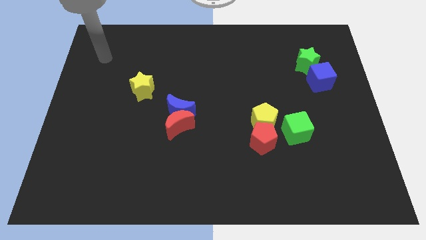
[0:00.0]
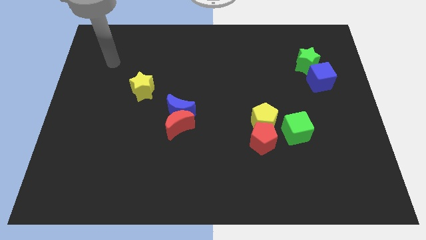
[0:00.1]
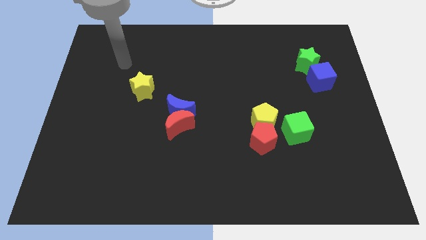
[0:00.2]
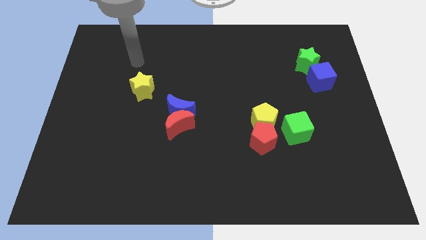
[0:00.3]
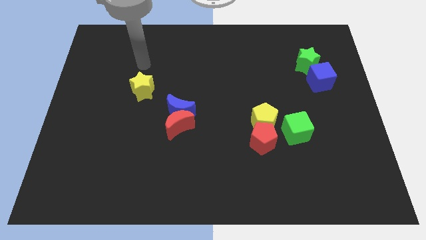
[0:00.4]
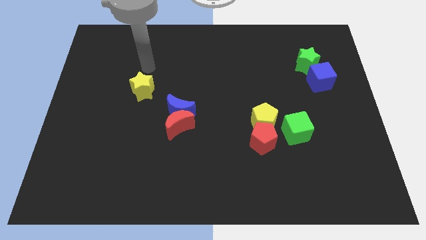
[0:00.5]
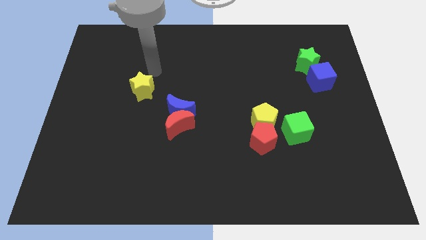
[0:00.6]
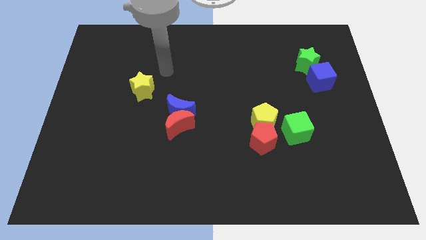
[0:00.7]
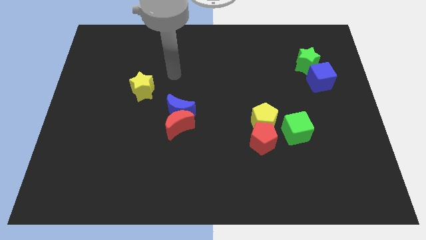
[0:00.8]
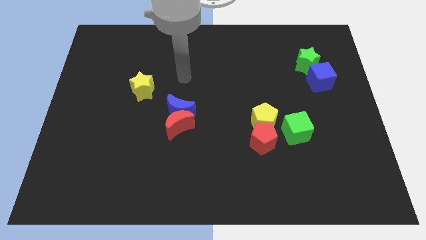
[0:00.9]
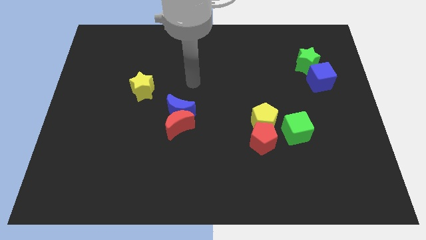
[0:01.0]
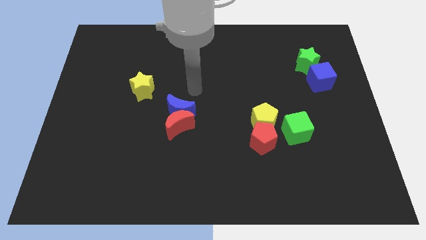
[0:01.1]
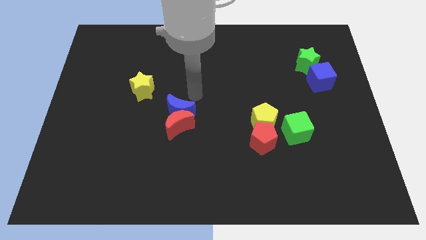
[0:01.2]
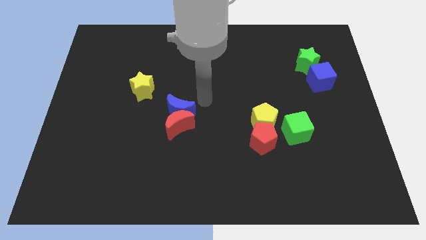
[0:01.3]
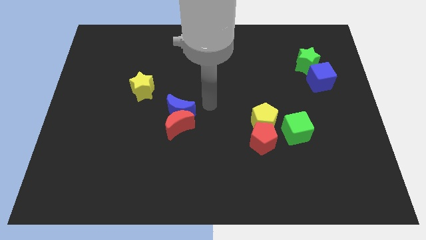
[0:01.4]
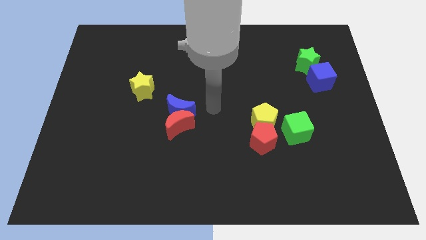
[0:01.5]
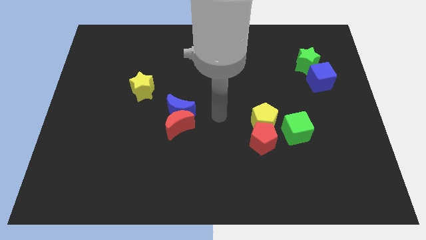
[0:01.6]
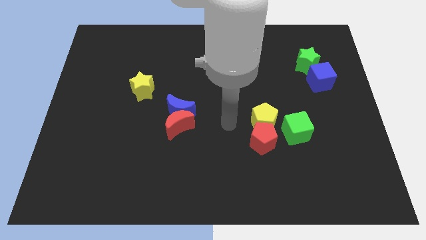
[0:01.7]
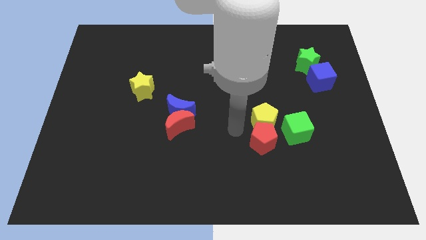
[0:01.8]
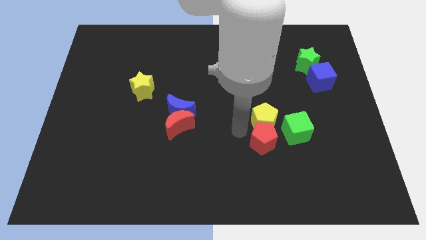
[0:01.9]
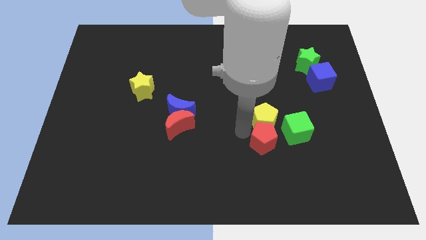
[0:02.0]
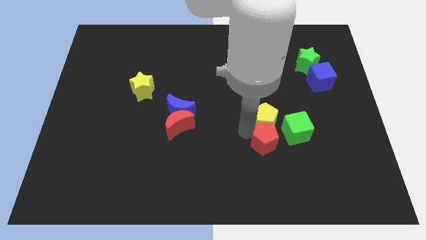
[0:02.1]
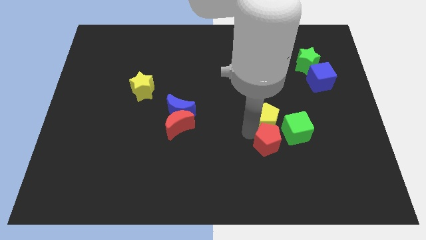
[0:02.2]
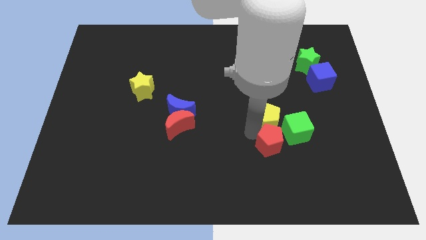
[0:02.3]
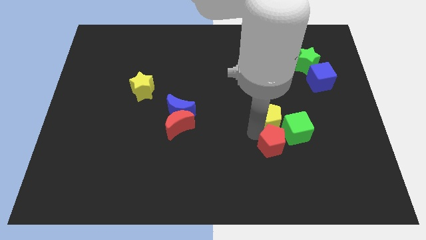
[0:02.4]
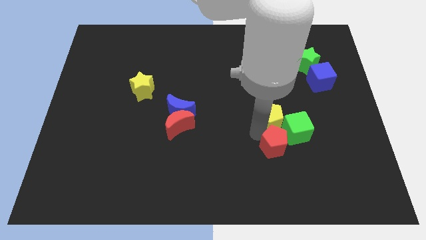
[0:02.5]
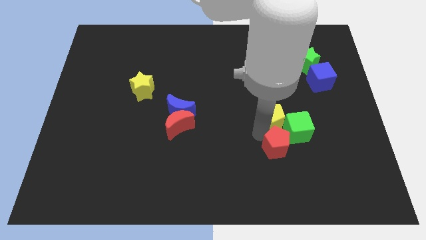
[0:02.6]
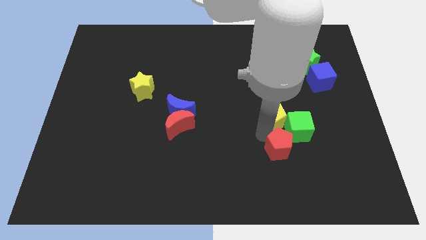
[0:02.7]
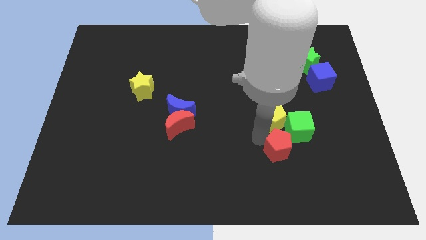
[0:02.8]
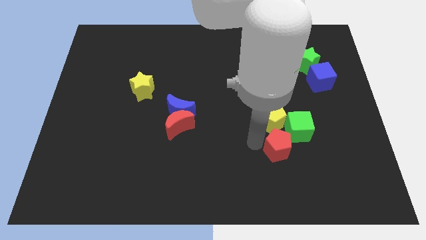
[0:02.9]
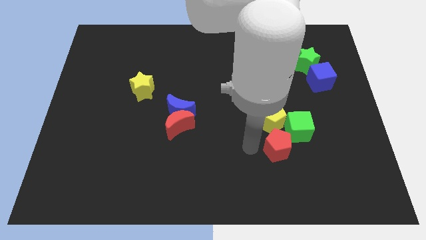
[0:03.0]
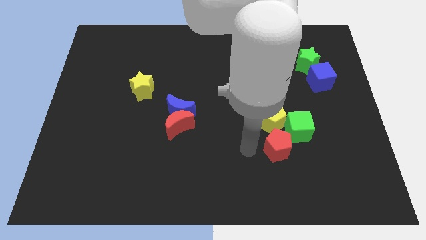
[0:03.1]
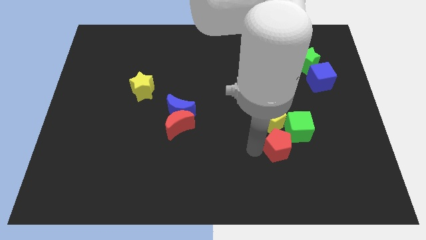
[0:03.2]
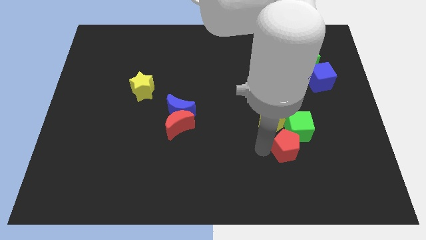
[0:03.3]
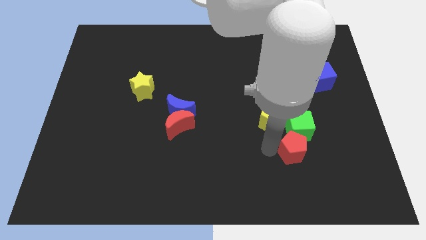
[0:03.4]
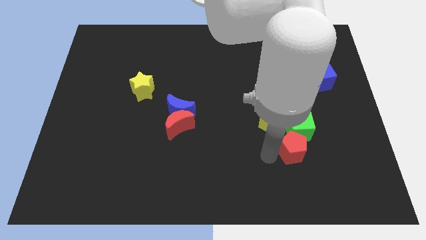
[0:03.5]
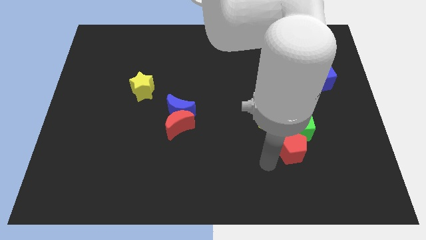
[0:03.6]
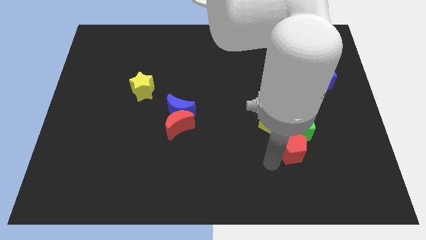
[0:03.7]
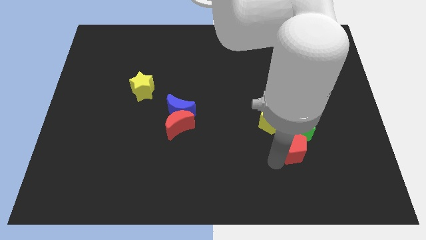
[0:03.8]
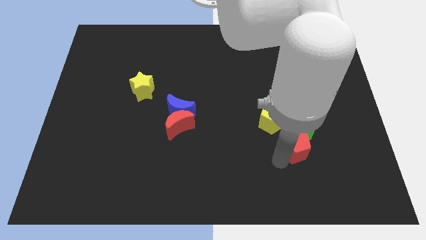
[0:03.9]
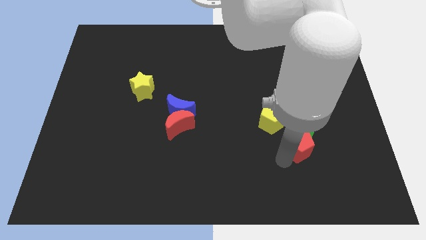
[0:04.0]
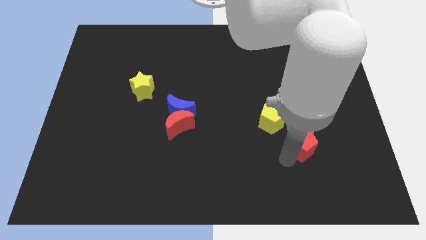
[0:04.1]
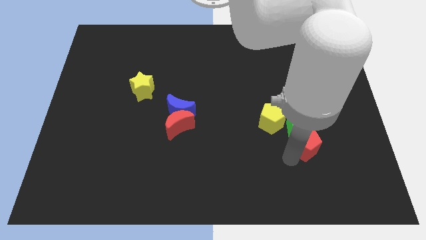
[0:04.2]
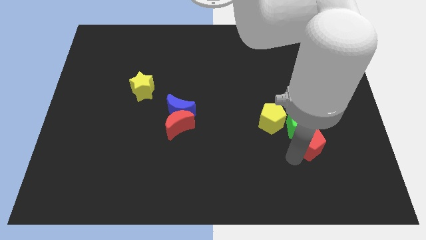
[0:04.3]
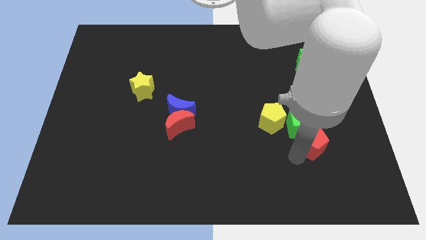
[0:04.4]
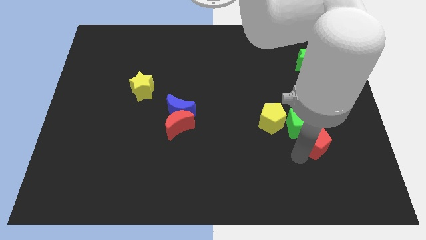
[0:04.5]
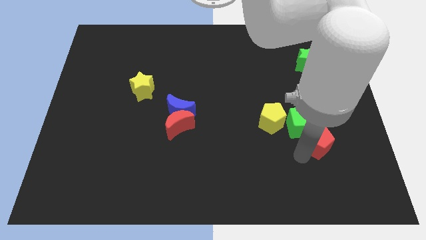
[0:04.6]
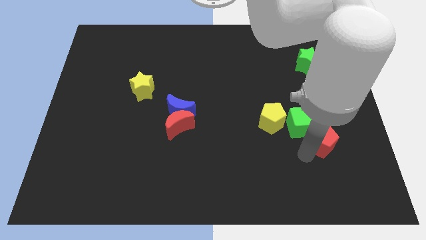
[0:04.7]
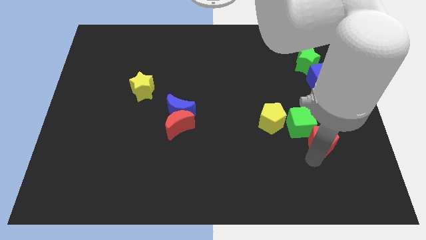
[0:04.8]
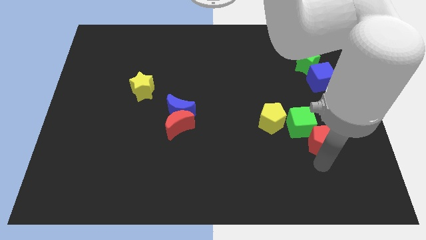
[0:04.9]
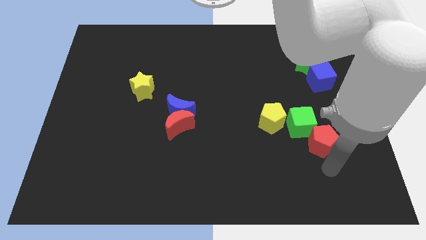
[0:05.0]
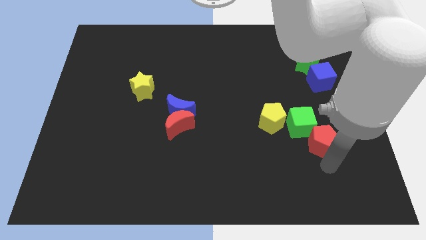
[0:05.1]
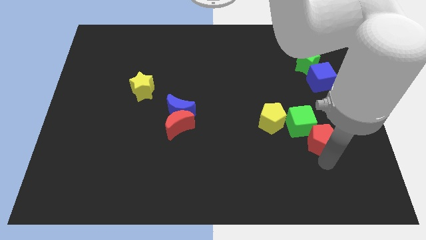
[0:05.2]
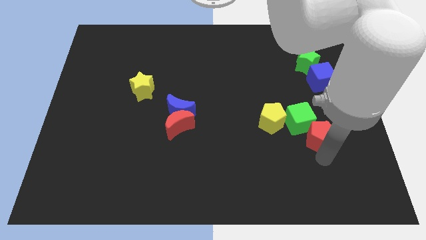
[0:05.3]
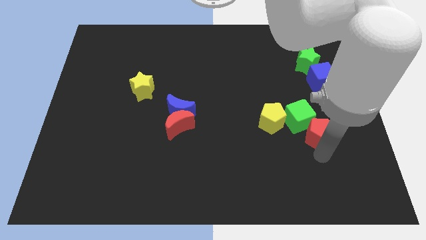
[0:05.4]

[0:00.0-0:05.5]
slide the red pentagon a bit upwards and to the right diagonally

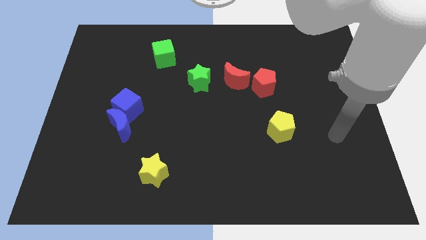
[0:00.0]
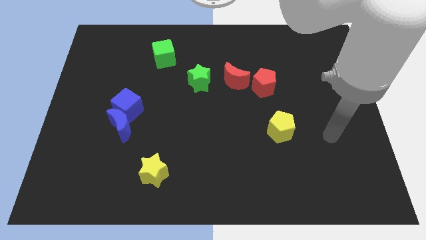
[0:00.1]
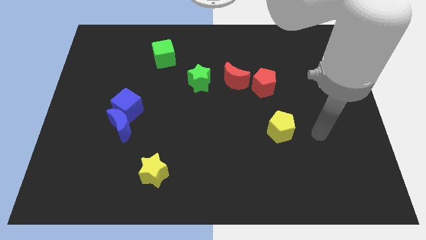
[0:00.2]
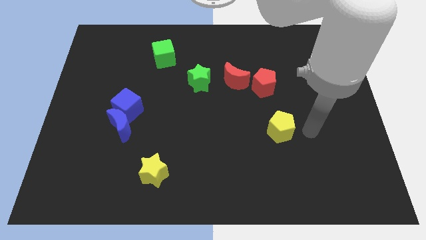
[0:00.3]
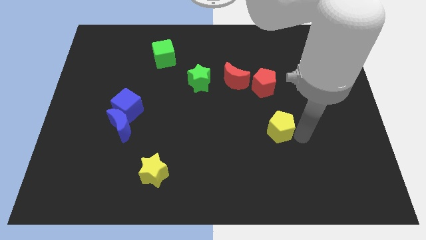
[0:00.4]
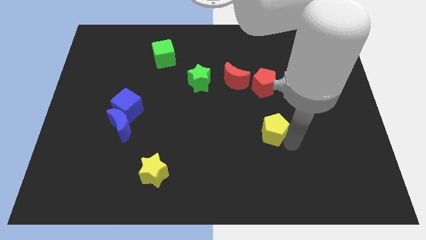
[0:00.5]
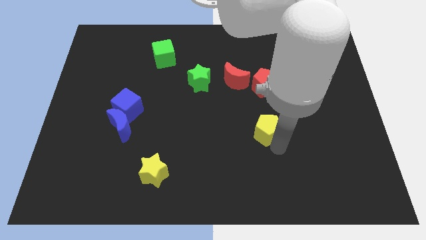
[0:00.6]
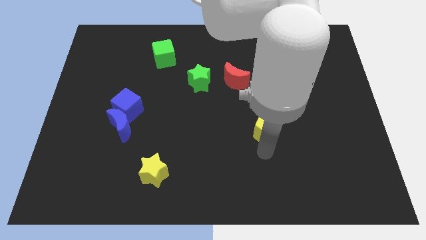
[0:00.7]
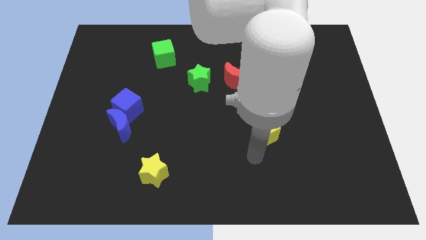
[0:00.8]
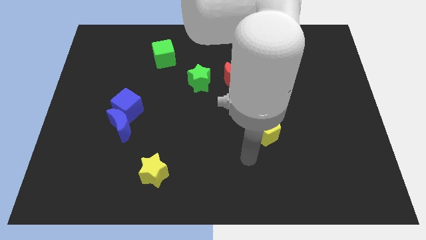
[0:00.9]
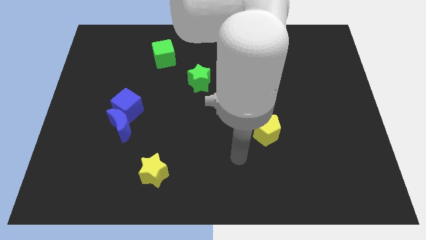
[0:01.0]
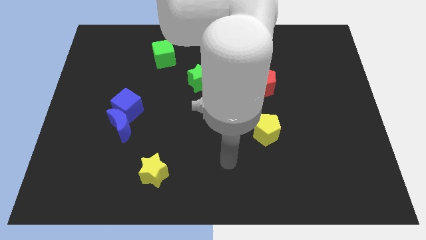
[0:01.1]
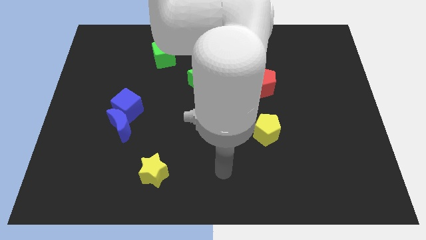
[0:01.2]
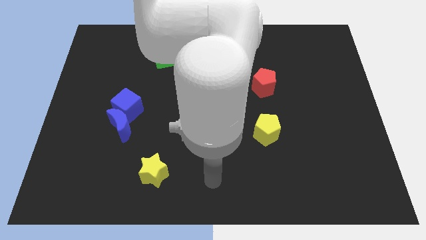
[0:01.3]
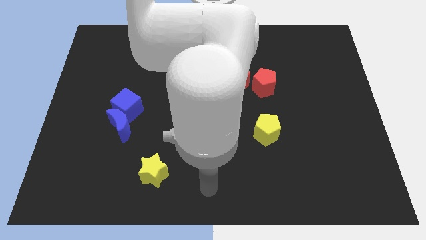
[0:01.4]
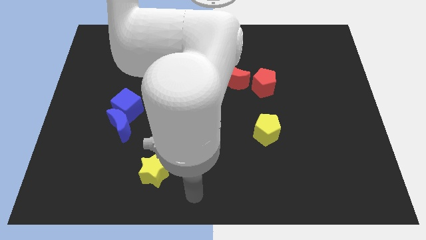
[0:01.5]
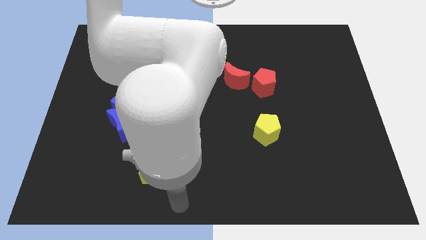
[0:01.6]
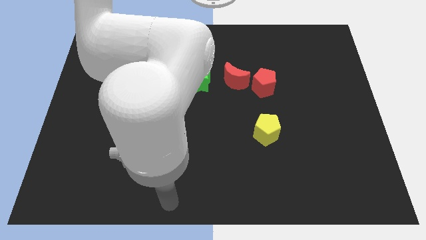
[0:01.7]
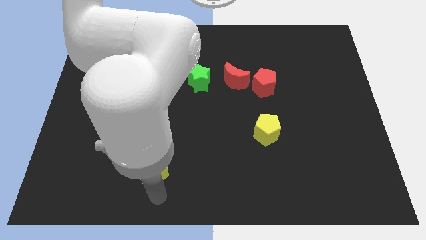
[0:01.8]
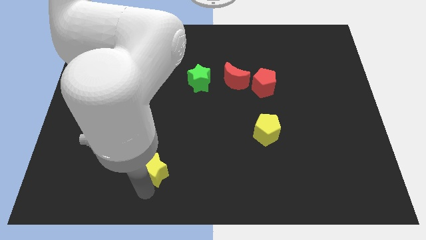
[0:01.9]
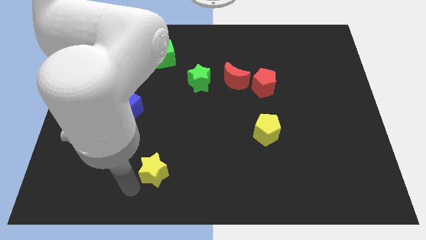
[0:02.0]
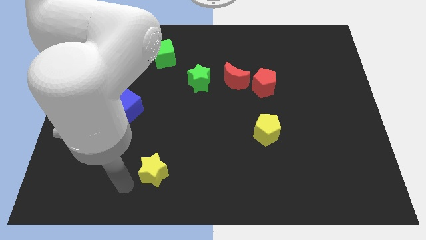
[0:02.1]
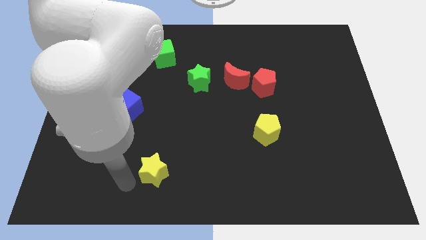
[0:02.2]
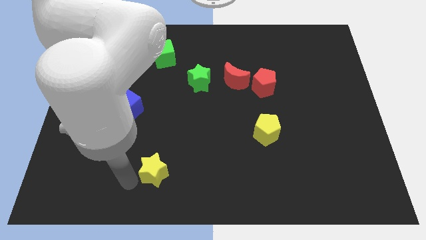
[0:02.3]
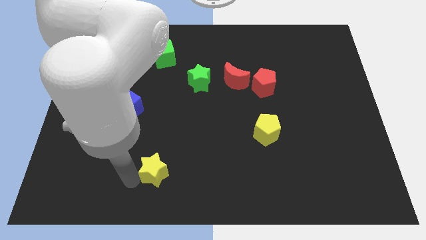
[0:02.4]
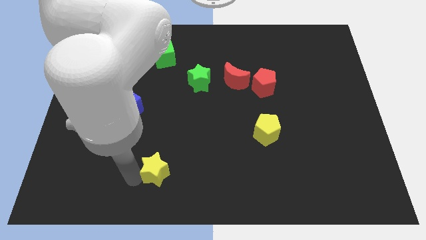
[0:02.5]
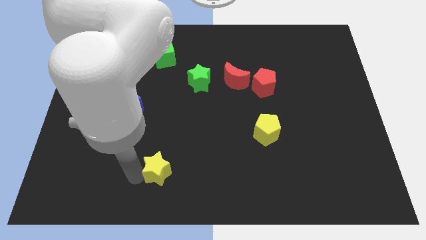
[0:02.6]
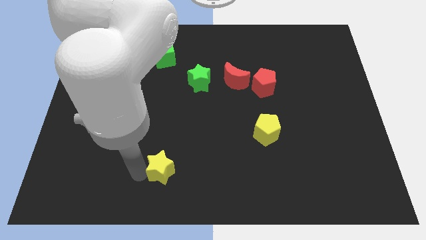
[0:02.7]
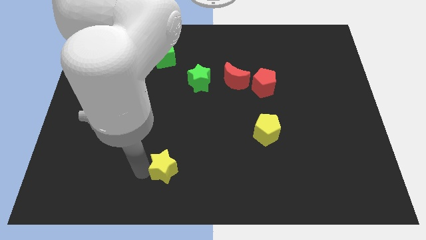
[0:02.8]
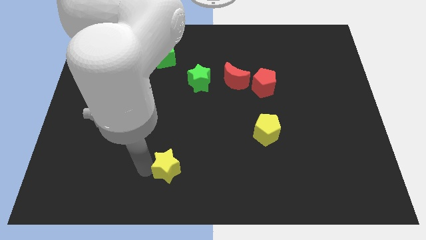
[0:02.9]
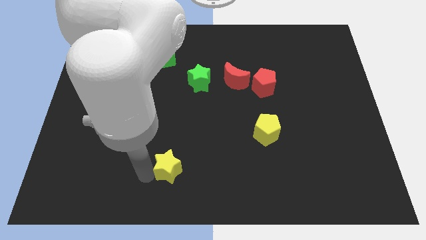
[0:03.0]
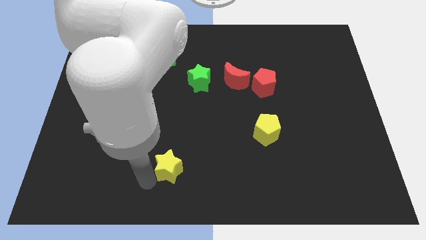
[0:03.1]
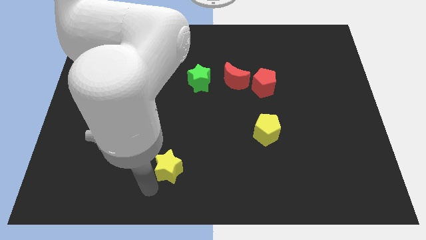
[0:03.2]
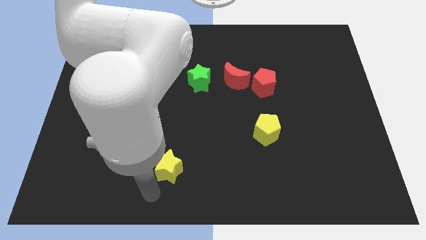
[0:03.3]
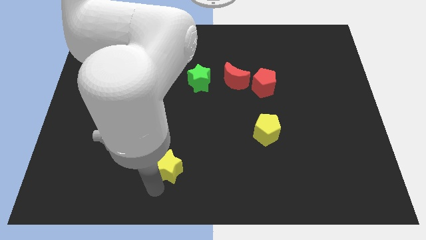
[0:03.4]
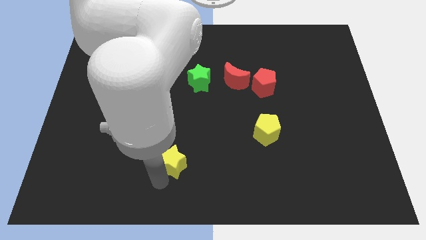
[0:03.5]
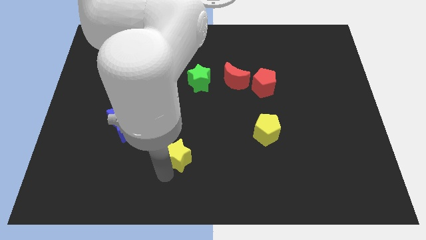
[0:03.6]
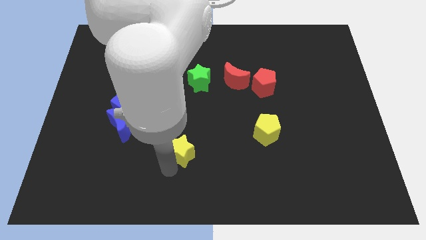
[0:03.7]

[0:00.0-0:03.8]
push the yellow star a little upwards and right
